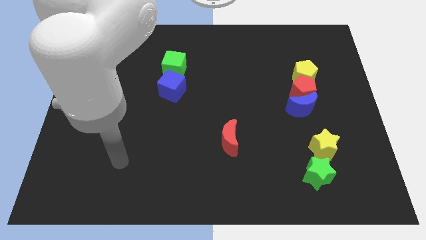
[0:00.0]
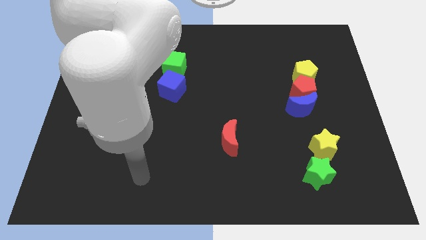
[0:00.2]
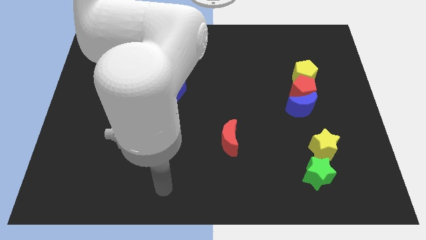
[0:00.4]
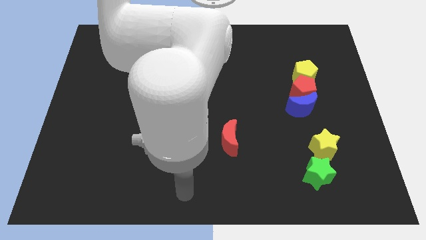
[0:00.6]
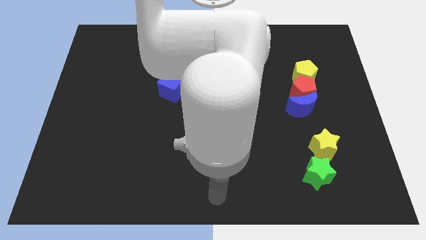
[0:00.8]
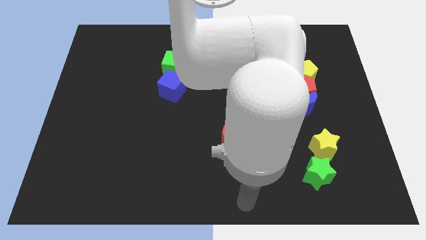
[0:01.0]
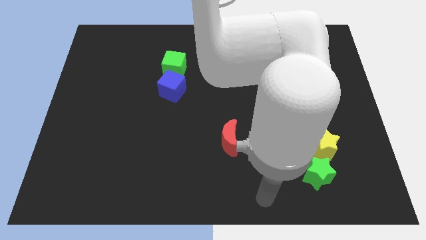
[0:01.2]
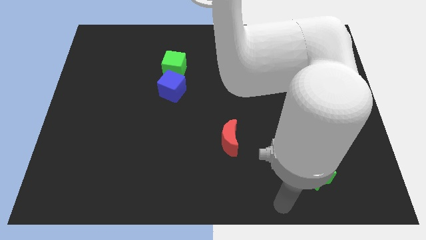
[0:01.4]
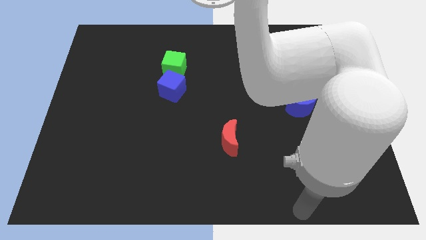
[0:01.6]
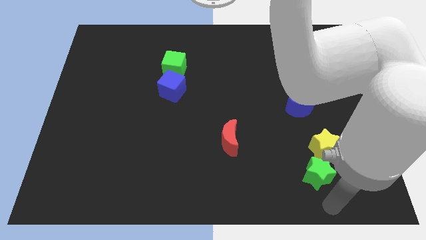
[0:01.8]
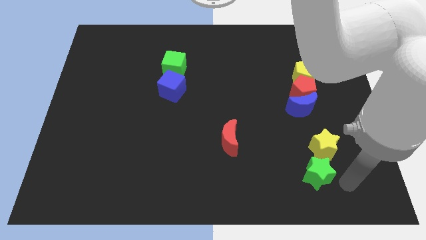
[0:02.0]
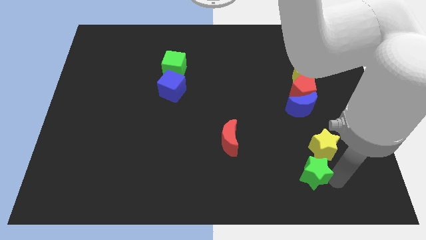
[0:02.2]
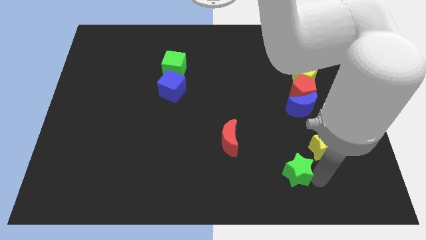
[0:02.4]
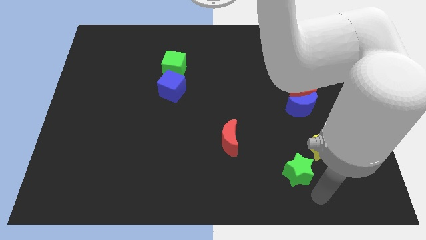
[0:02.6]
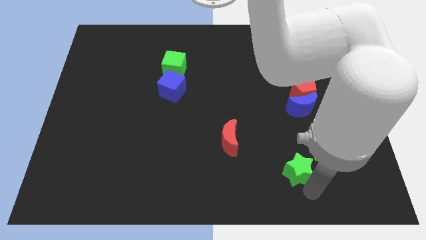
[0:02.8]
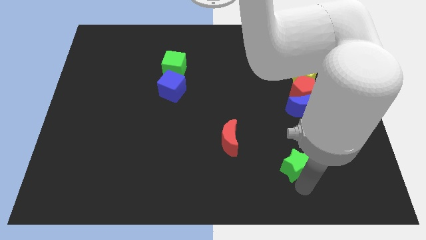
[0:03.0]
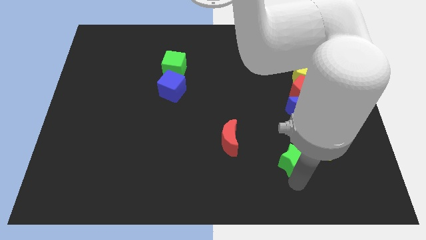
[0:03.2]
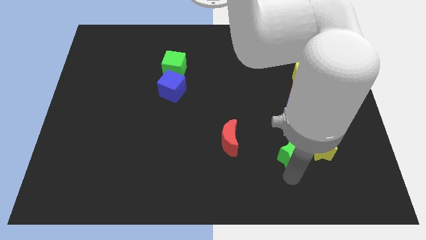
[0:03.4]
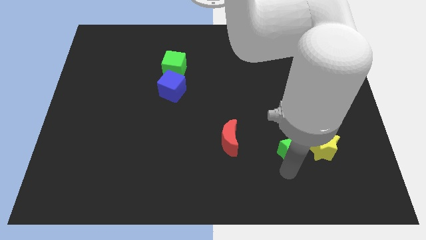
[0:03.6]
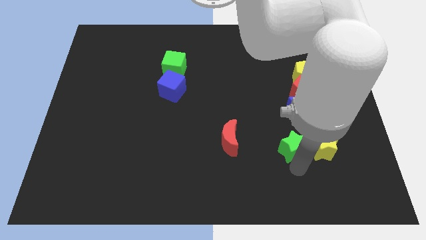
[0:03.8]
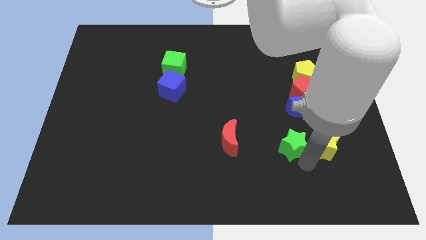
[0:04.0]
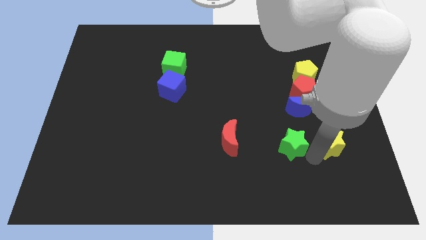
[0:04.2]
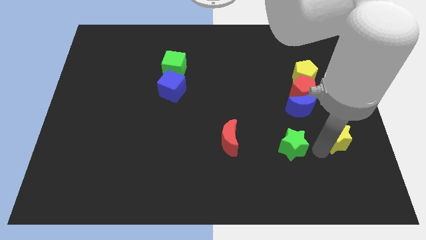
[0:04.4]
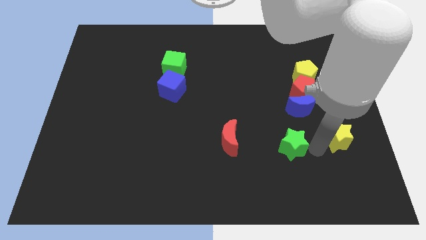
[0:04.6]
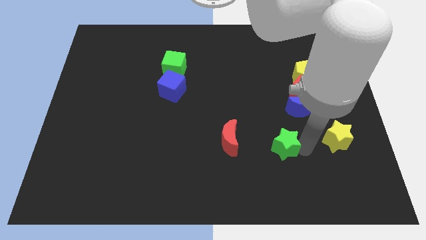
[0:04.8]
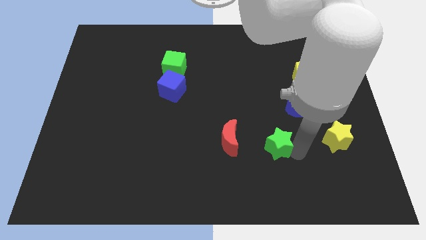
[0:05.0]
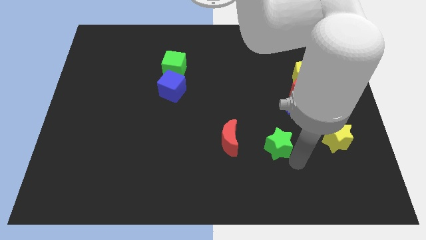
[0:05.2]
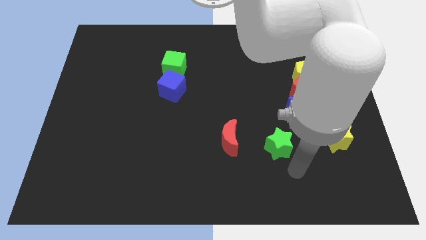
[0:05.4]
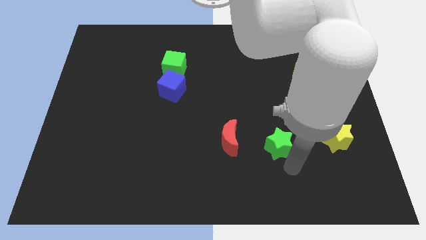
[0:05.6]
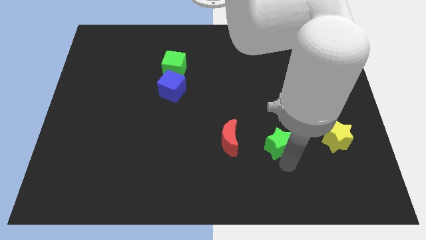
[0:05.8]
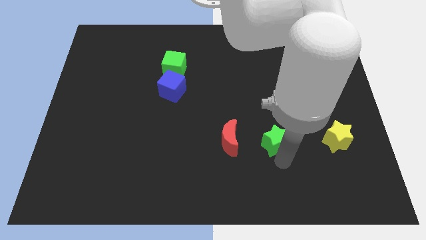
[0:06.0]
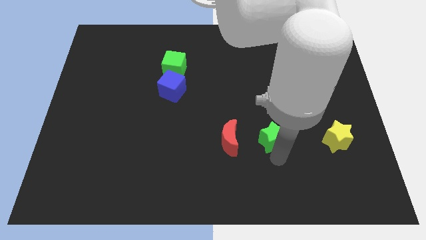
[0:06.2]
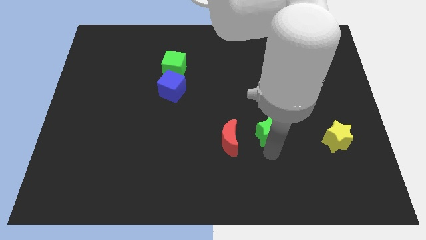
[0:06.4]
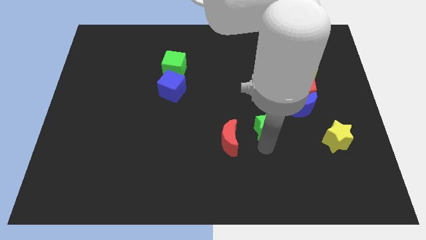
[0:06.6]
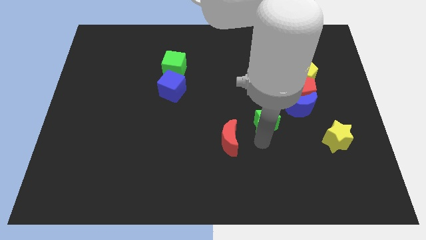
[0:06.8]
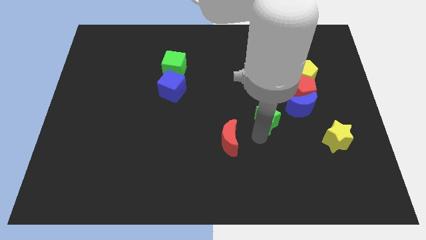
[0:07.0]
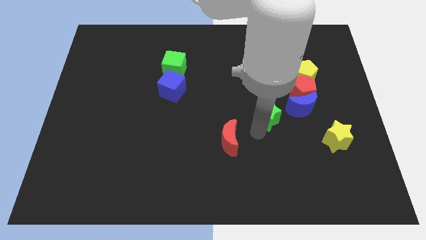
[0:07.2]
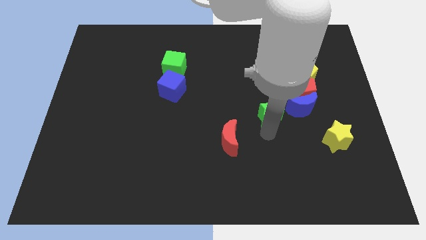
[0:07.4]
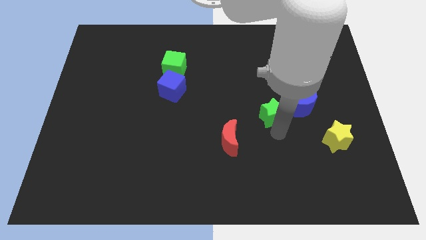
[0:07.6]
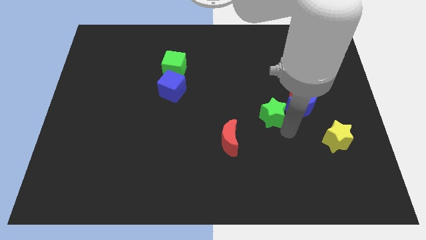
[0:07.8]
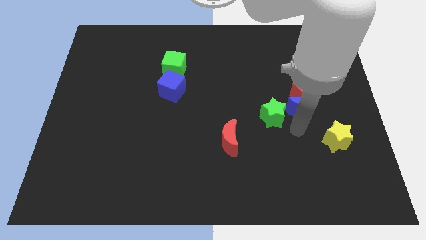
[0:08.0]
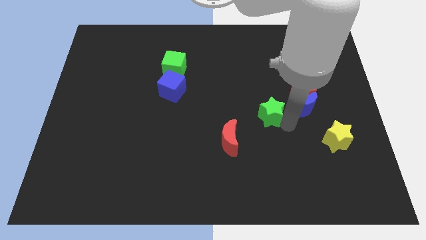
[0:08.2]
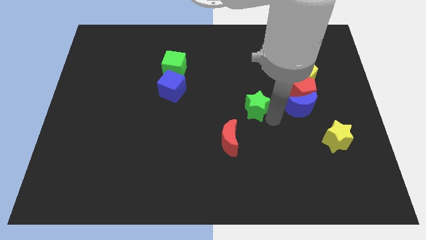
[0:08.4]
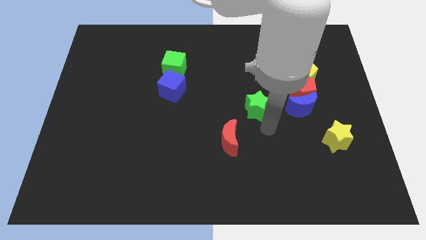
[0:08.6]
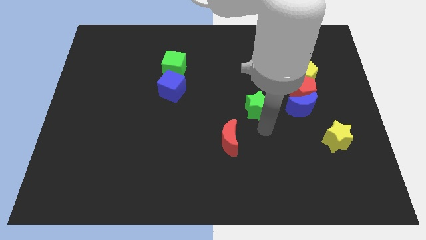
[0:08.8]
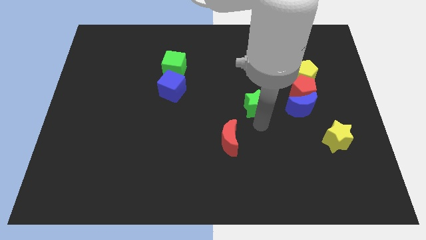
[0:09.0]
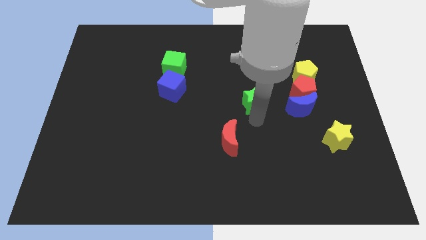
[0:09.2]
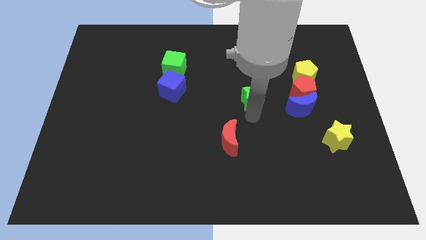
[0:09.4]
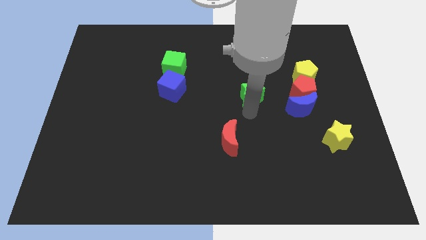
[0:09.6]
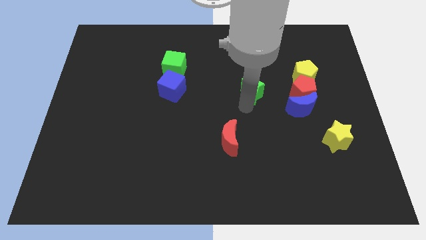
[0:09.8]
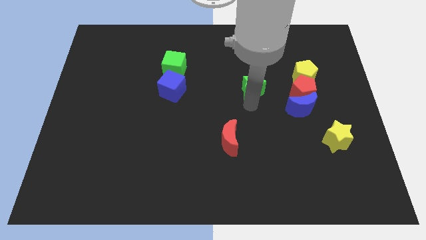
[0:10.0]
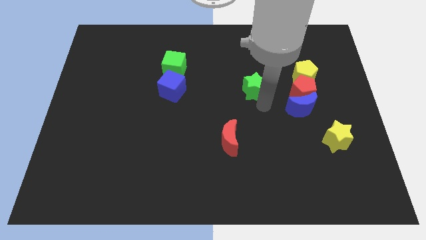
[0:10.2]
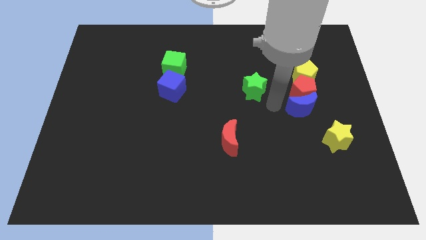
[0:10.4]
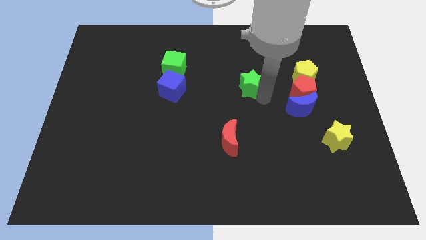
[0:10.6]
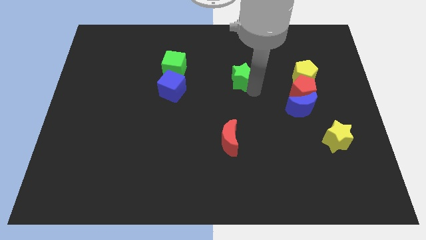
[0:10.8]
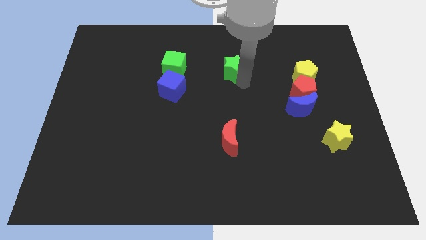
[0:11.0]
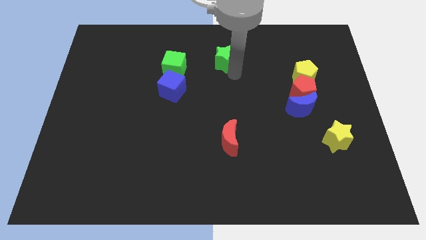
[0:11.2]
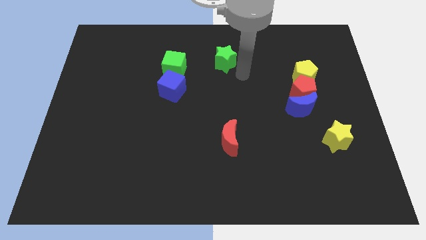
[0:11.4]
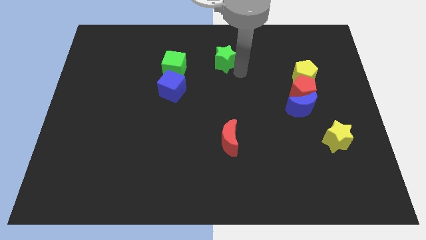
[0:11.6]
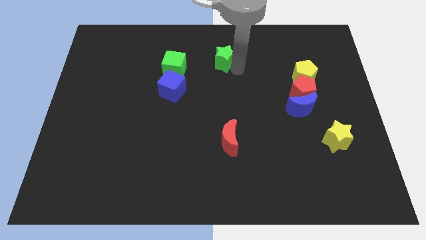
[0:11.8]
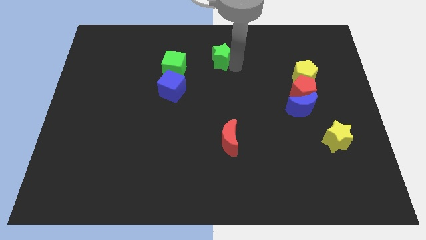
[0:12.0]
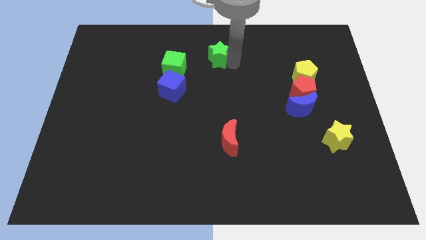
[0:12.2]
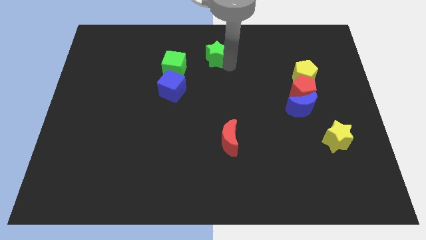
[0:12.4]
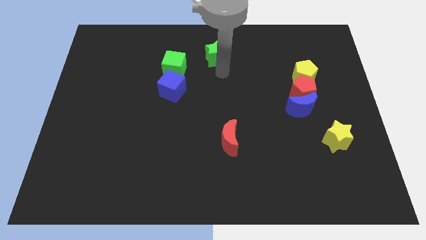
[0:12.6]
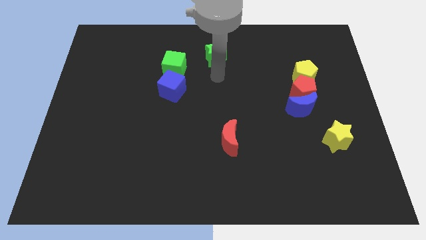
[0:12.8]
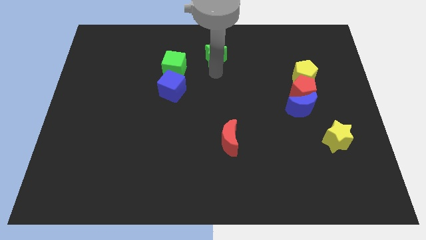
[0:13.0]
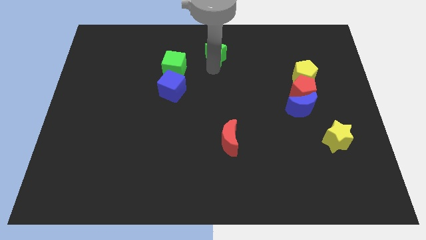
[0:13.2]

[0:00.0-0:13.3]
push the green star to the top

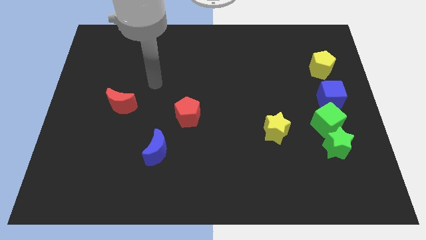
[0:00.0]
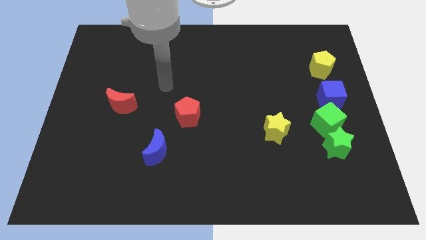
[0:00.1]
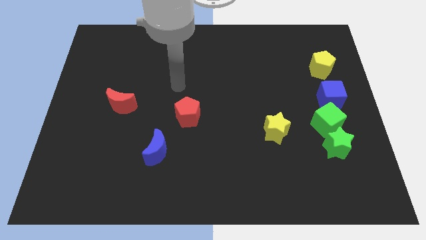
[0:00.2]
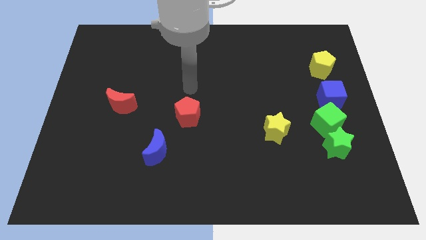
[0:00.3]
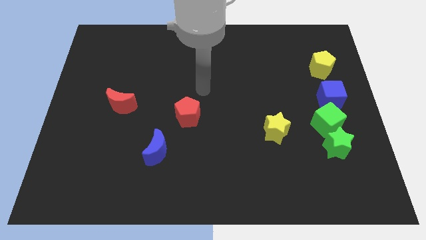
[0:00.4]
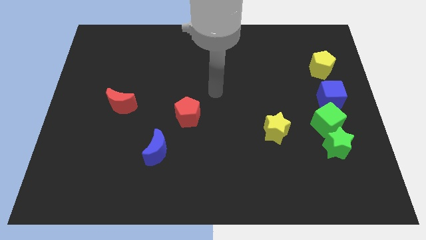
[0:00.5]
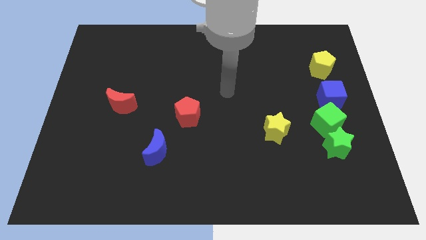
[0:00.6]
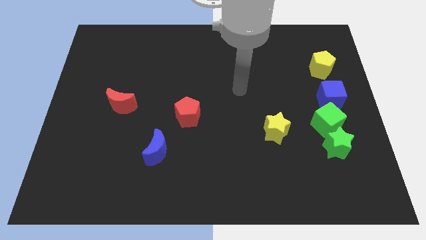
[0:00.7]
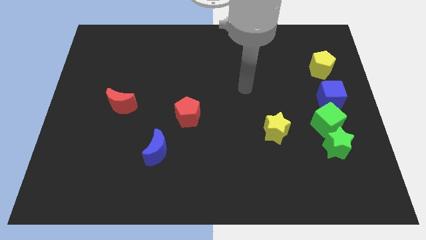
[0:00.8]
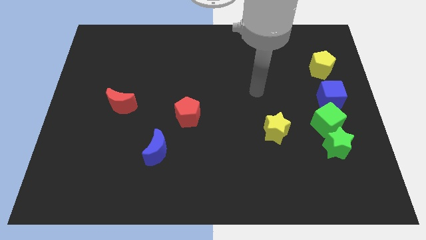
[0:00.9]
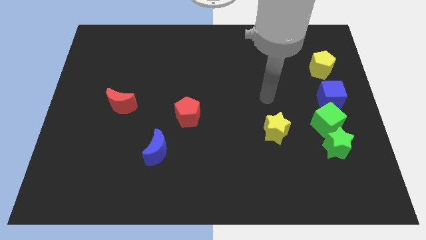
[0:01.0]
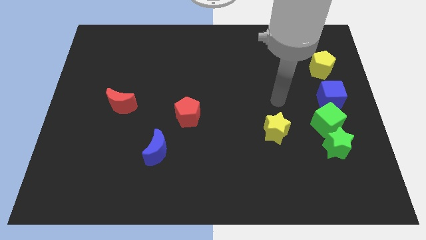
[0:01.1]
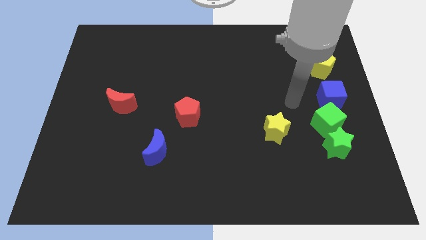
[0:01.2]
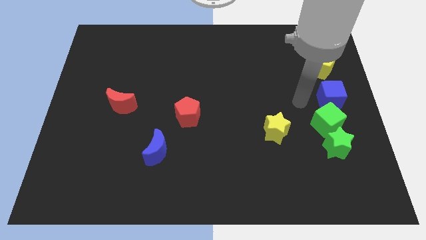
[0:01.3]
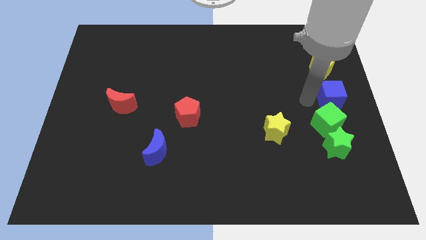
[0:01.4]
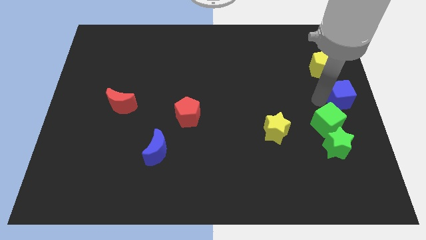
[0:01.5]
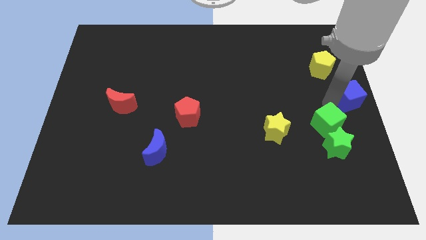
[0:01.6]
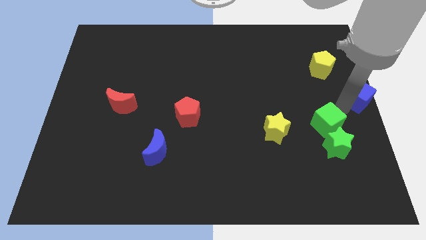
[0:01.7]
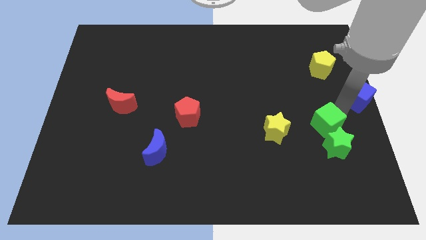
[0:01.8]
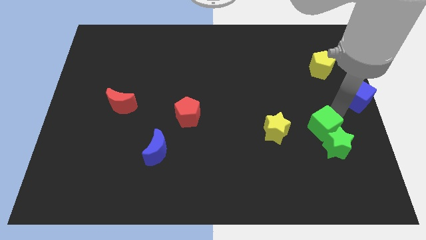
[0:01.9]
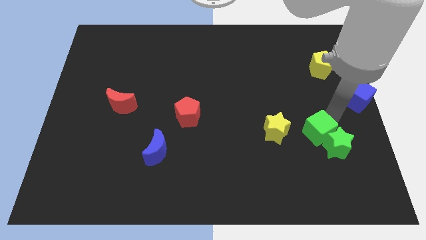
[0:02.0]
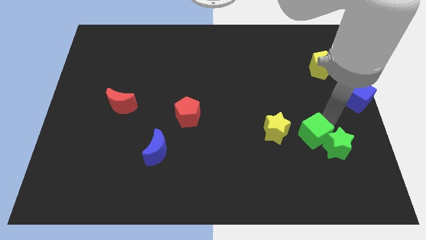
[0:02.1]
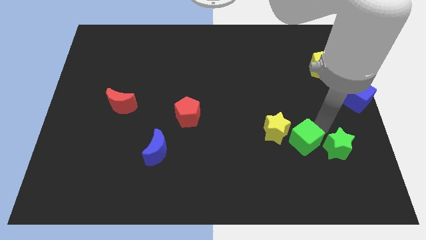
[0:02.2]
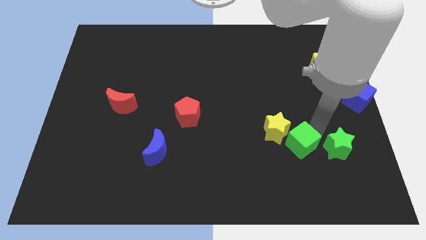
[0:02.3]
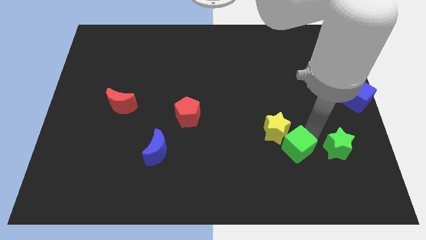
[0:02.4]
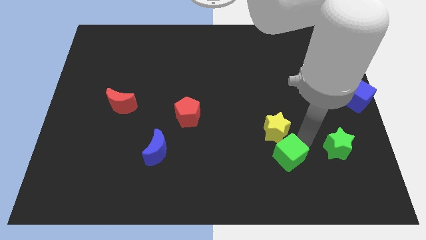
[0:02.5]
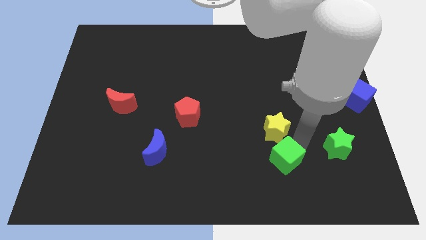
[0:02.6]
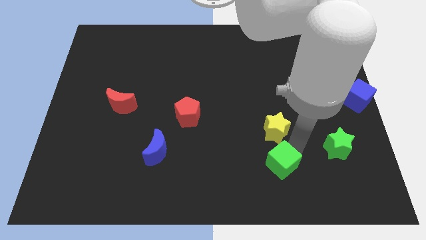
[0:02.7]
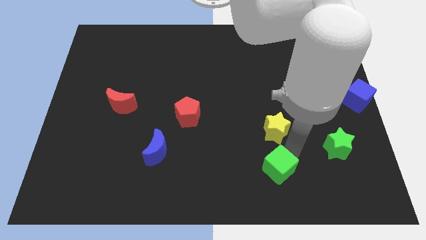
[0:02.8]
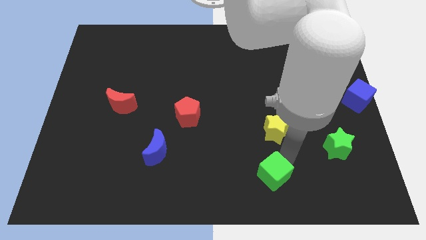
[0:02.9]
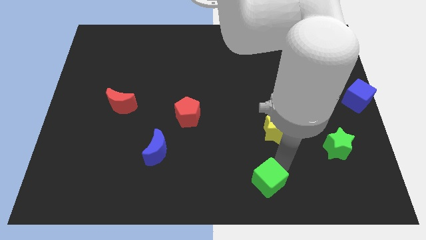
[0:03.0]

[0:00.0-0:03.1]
slide the green cube to the bottom side
